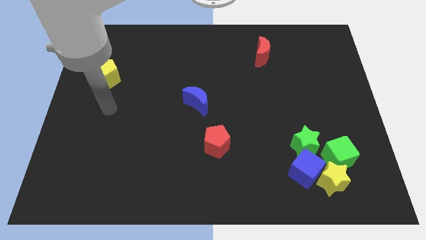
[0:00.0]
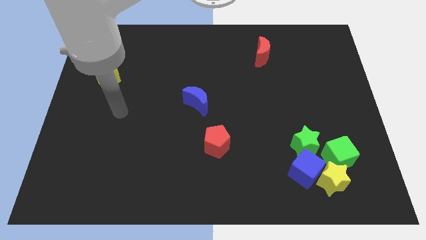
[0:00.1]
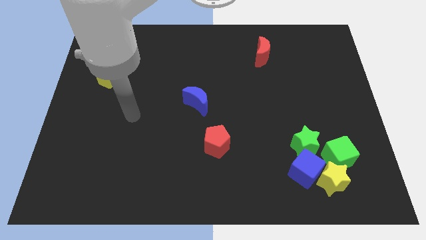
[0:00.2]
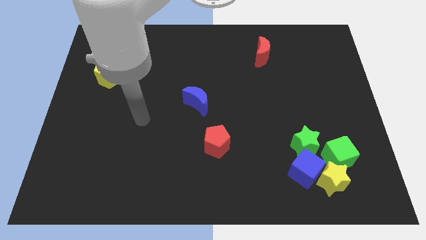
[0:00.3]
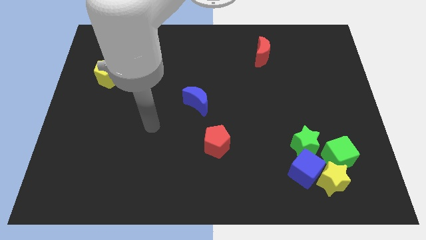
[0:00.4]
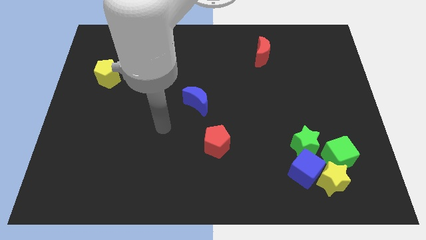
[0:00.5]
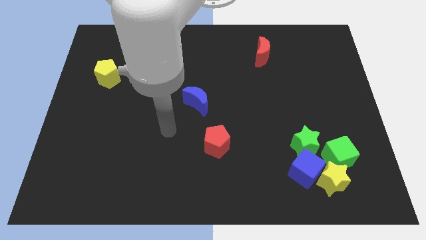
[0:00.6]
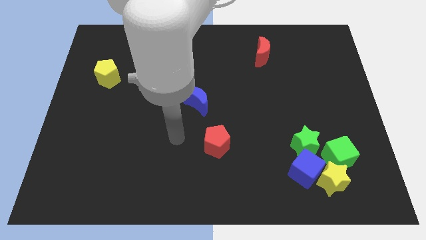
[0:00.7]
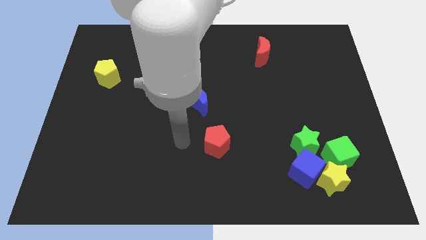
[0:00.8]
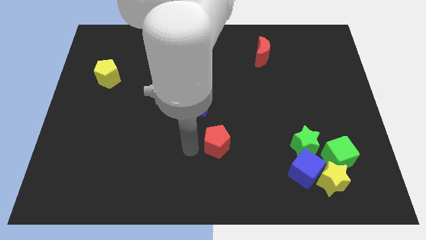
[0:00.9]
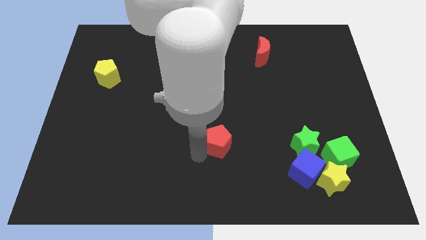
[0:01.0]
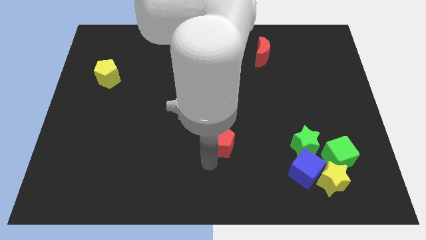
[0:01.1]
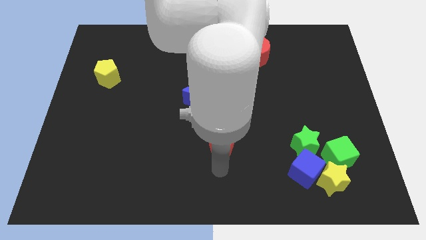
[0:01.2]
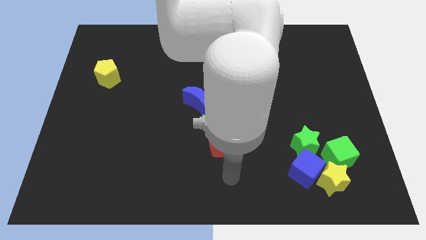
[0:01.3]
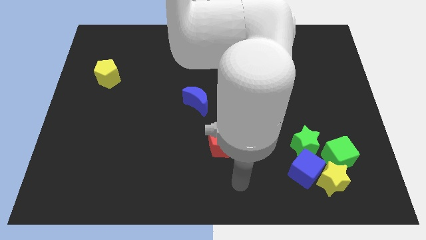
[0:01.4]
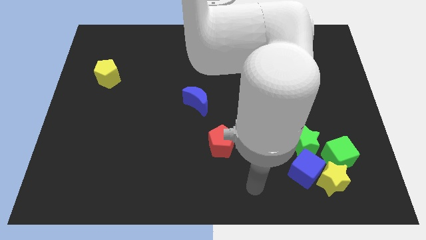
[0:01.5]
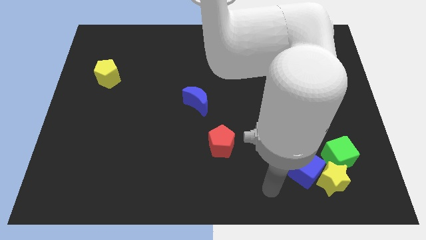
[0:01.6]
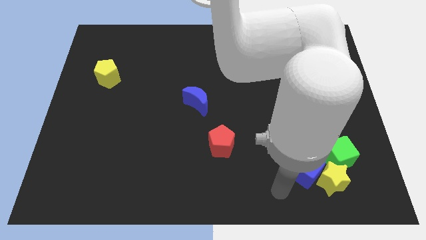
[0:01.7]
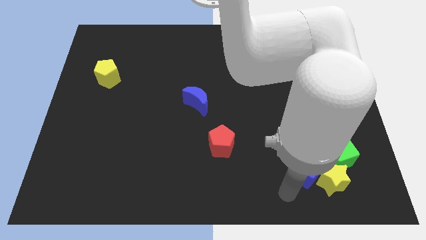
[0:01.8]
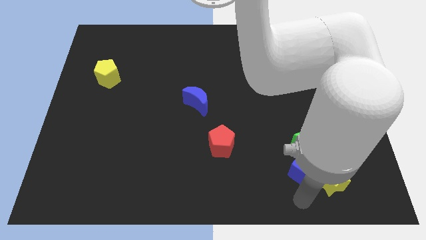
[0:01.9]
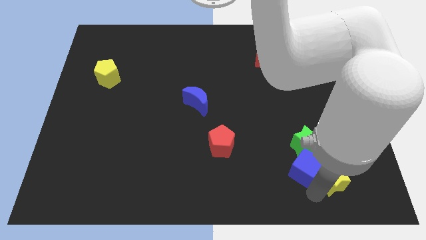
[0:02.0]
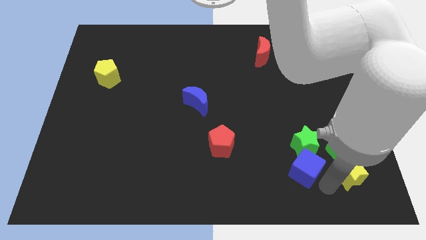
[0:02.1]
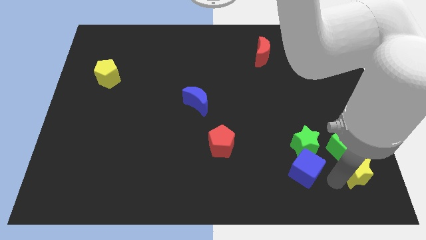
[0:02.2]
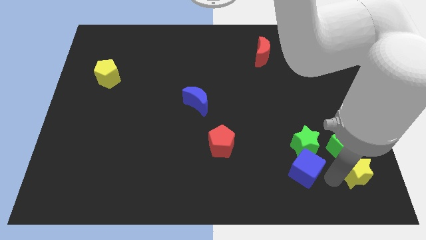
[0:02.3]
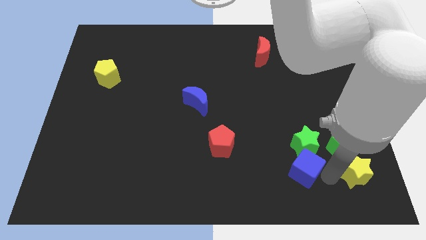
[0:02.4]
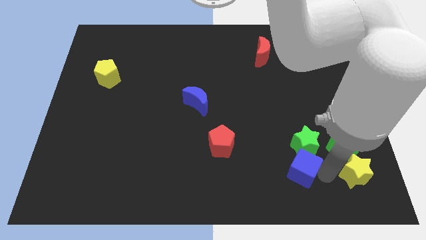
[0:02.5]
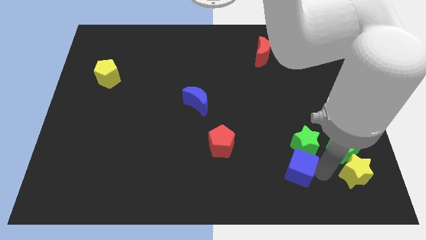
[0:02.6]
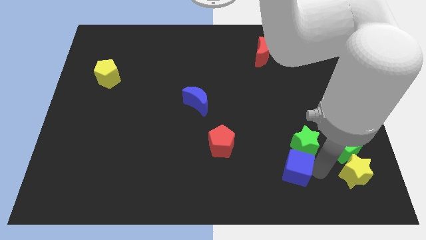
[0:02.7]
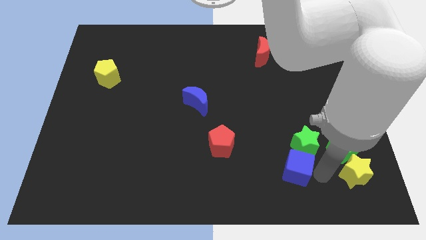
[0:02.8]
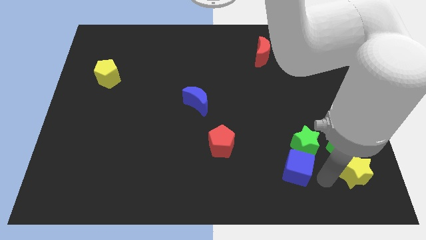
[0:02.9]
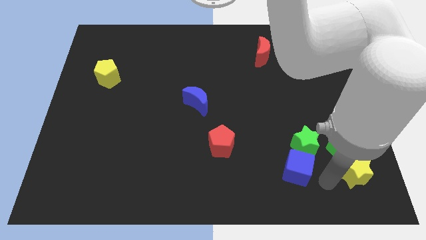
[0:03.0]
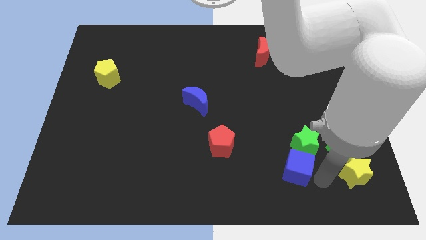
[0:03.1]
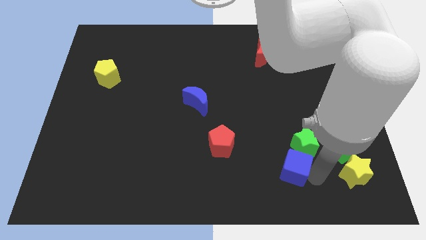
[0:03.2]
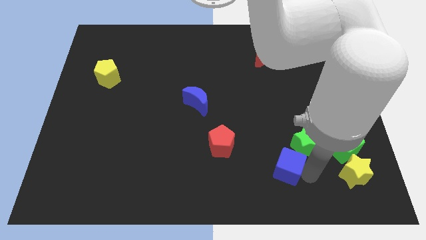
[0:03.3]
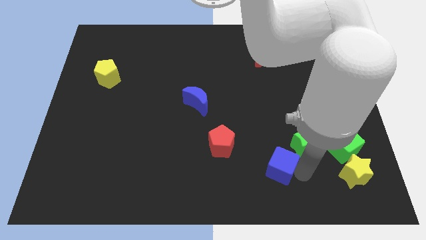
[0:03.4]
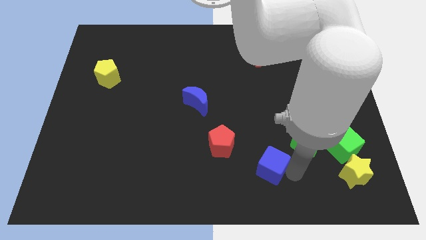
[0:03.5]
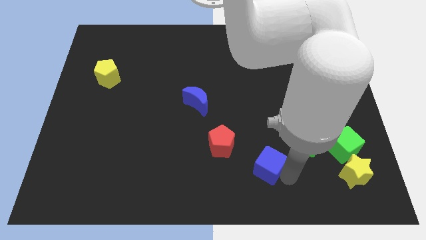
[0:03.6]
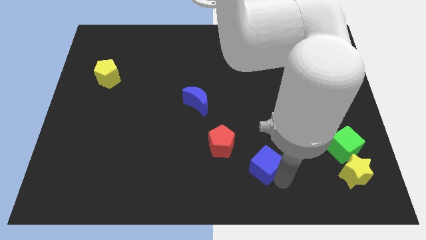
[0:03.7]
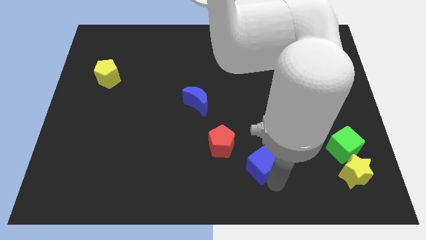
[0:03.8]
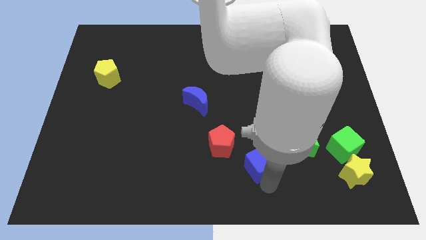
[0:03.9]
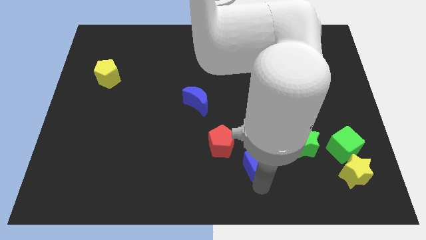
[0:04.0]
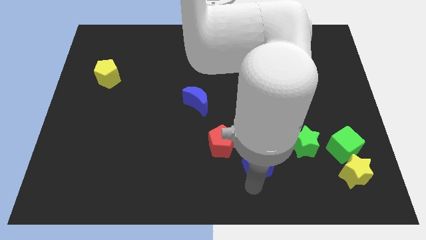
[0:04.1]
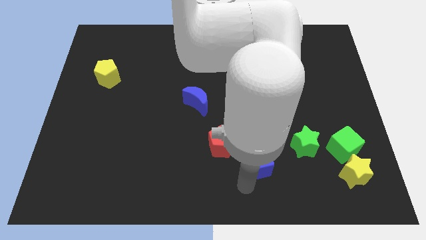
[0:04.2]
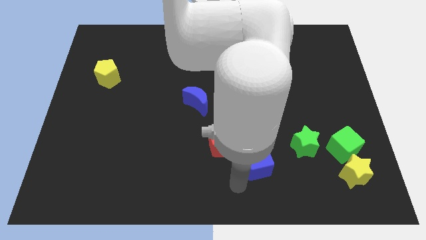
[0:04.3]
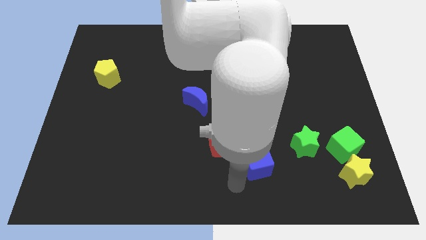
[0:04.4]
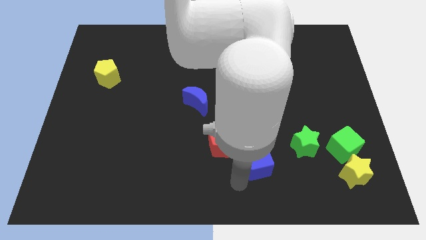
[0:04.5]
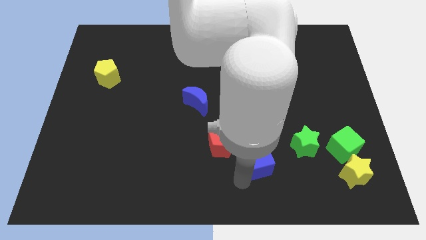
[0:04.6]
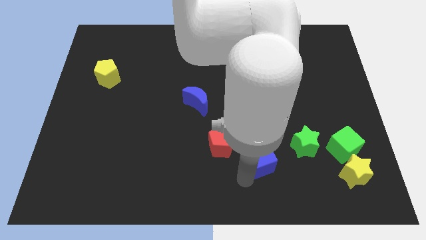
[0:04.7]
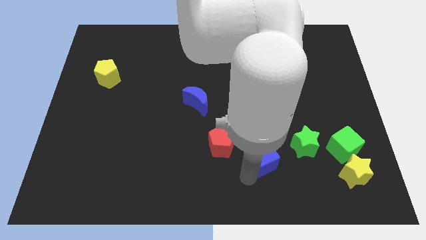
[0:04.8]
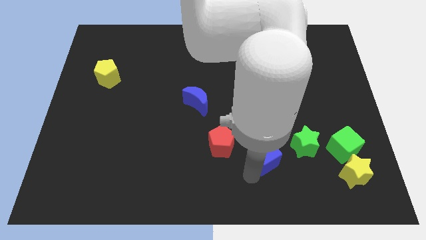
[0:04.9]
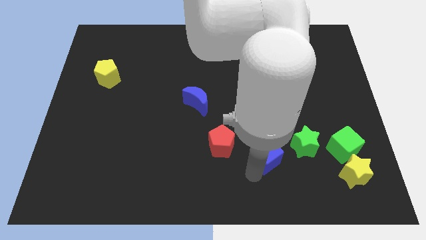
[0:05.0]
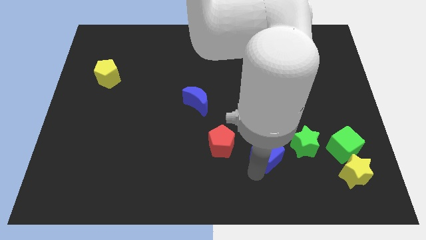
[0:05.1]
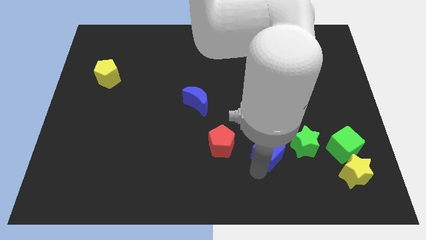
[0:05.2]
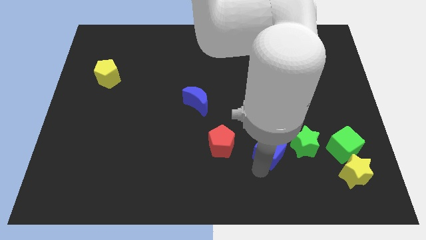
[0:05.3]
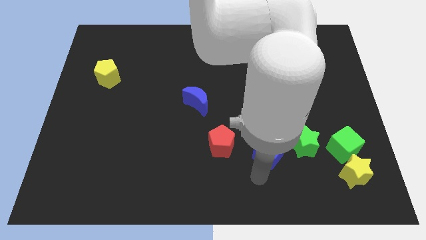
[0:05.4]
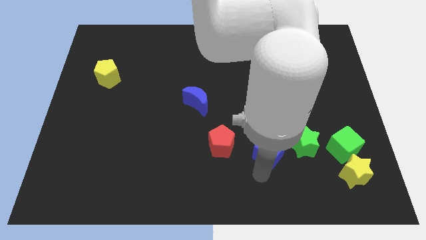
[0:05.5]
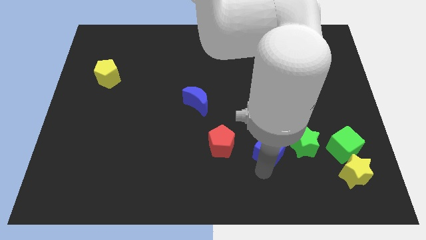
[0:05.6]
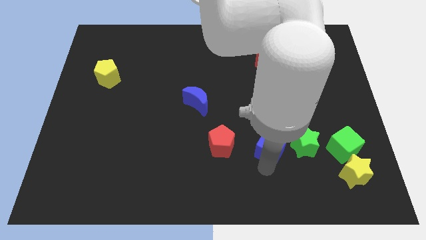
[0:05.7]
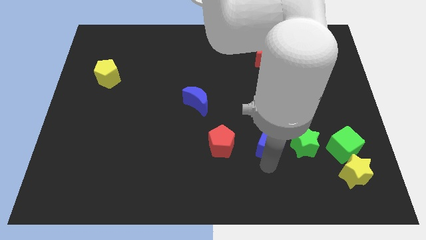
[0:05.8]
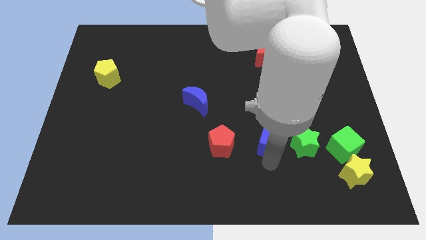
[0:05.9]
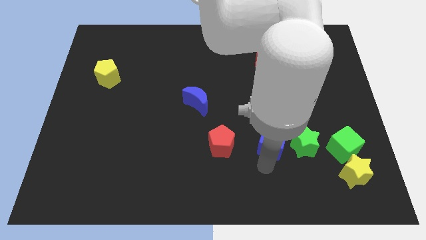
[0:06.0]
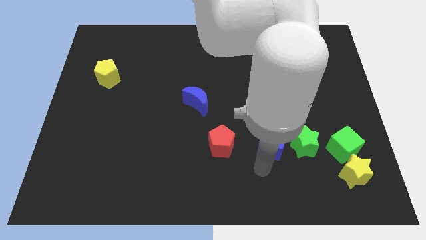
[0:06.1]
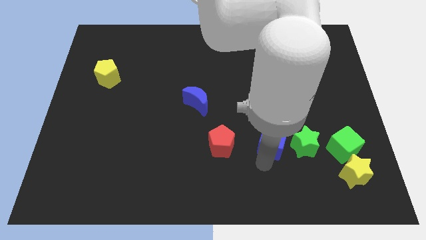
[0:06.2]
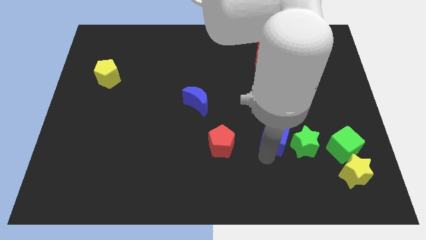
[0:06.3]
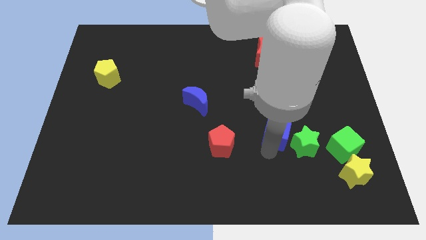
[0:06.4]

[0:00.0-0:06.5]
push the blue cube upwards a bit

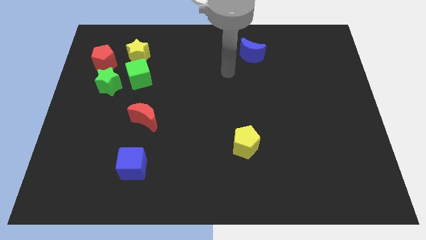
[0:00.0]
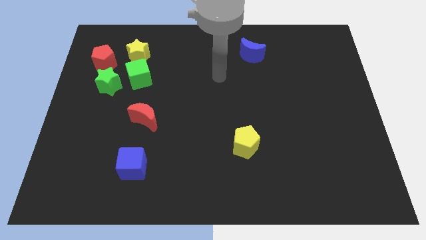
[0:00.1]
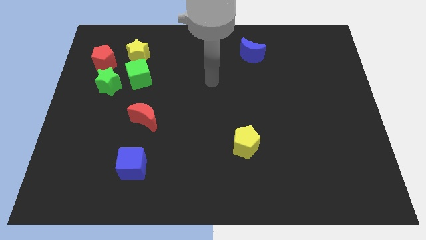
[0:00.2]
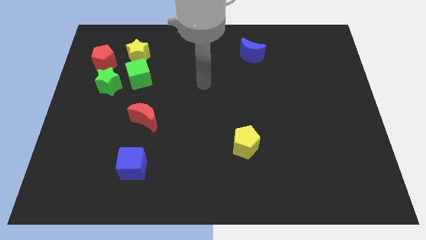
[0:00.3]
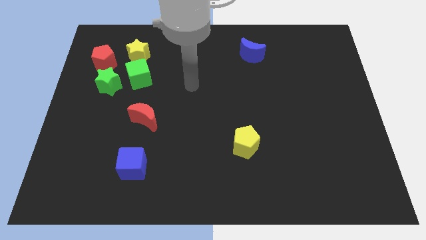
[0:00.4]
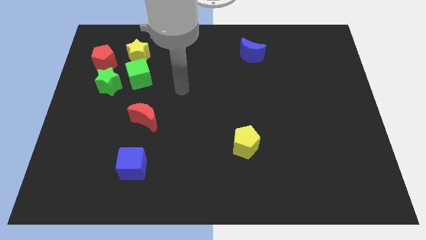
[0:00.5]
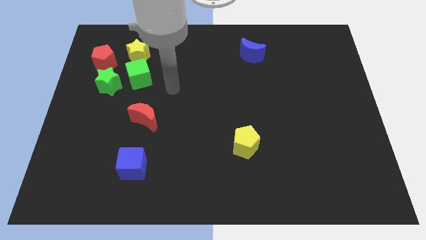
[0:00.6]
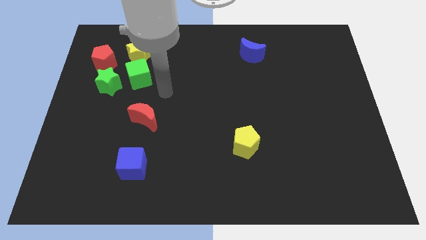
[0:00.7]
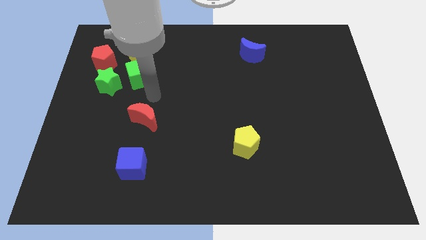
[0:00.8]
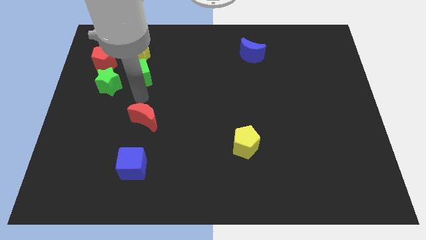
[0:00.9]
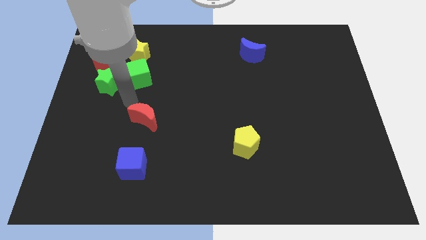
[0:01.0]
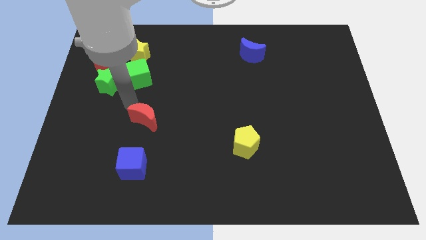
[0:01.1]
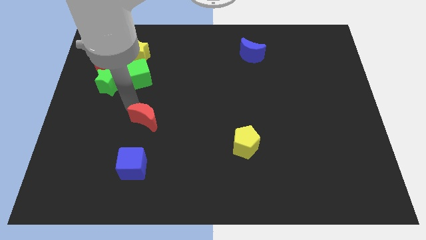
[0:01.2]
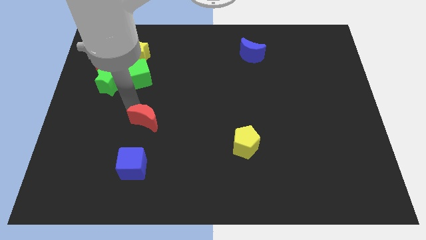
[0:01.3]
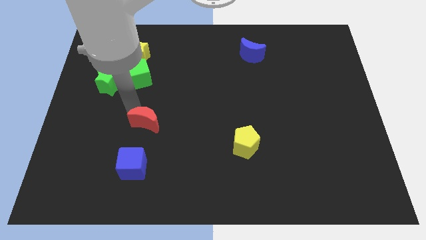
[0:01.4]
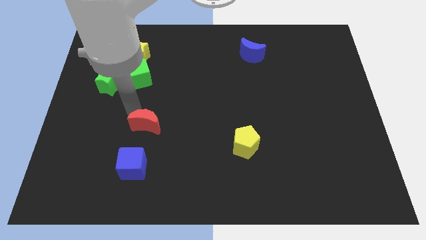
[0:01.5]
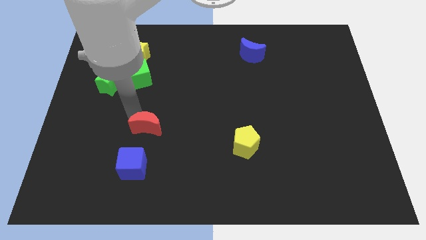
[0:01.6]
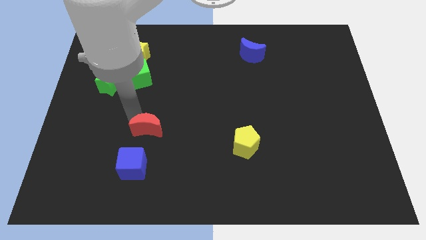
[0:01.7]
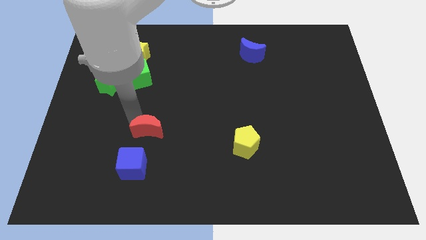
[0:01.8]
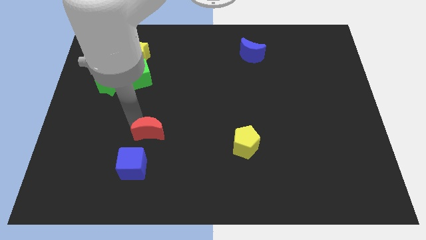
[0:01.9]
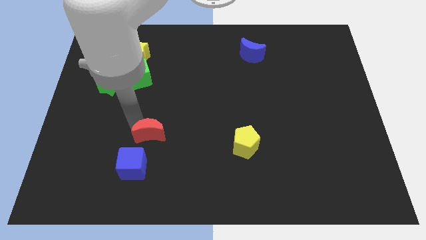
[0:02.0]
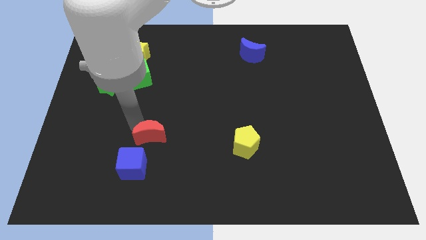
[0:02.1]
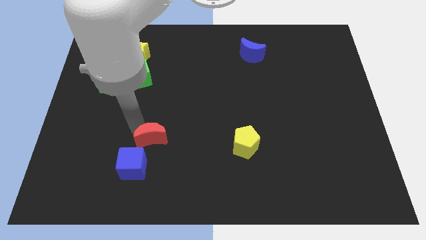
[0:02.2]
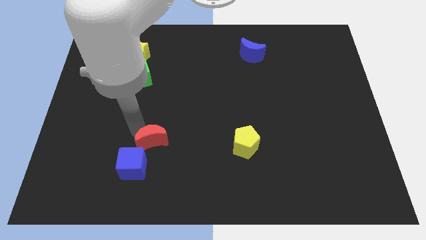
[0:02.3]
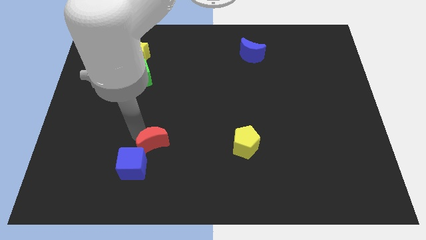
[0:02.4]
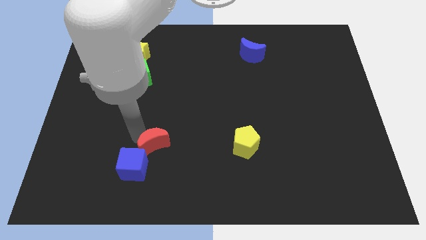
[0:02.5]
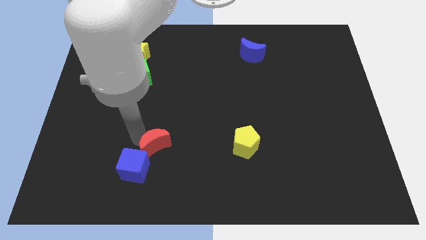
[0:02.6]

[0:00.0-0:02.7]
move the red moon a bit downwards and then right
